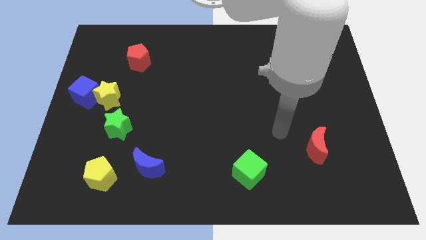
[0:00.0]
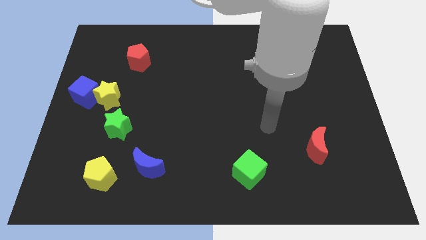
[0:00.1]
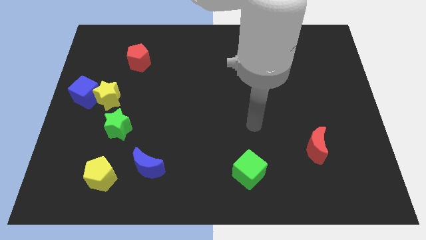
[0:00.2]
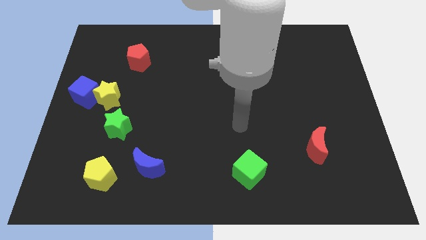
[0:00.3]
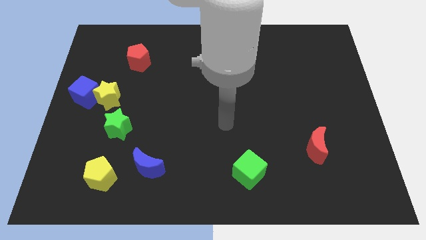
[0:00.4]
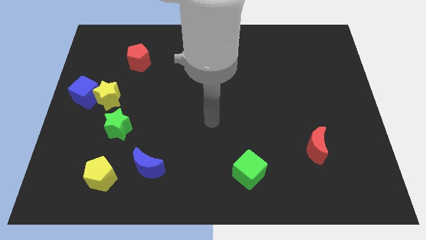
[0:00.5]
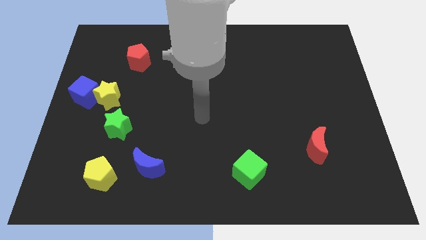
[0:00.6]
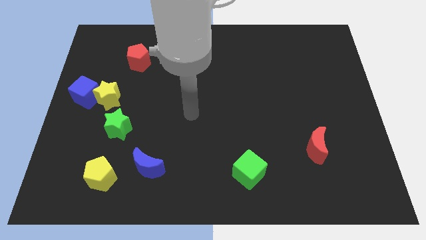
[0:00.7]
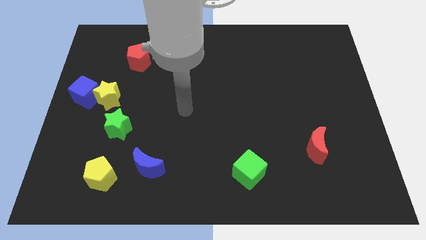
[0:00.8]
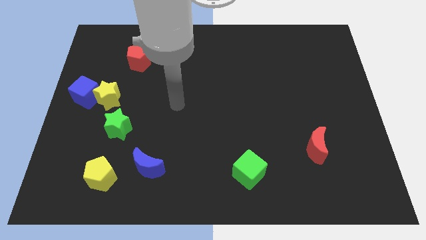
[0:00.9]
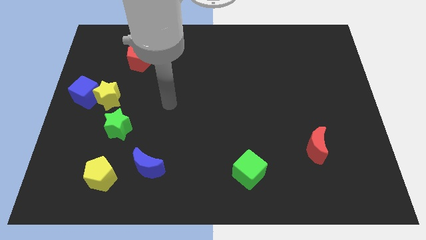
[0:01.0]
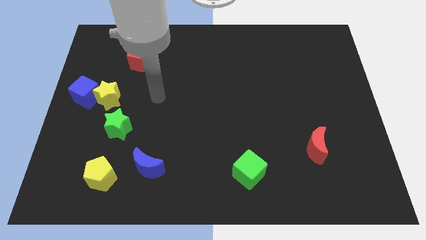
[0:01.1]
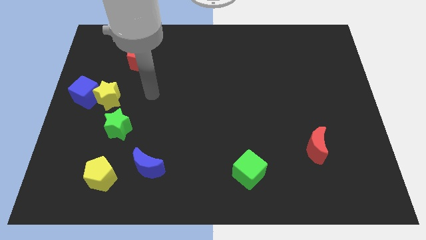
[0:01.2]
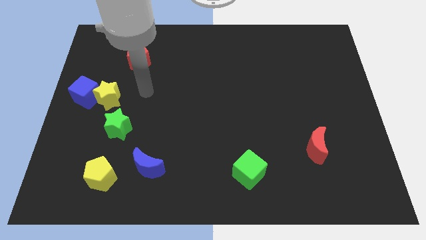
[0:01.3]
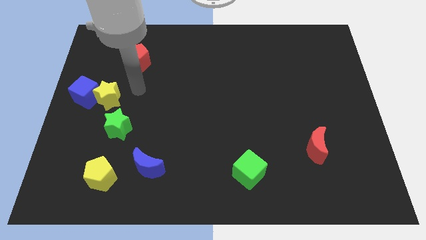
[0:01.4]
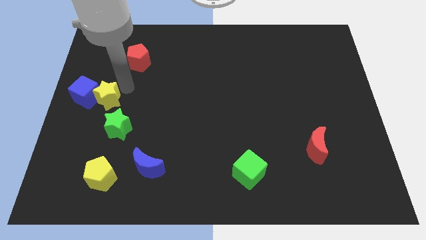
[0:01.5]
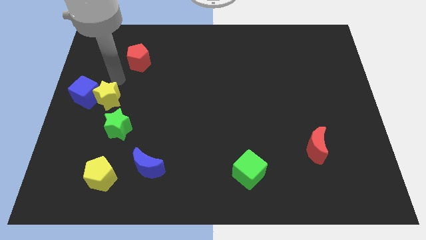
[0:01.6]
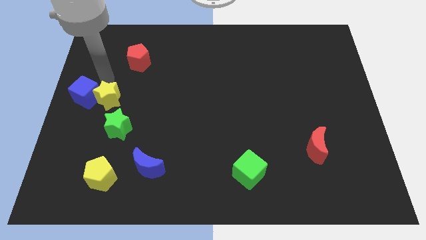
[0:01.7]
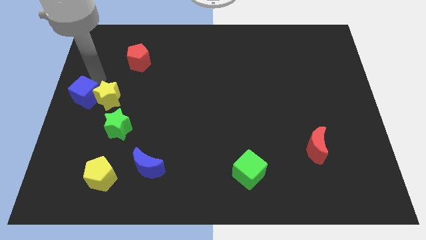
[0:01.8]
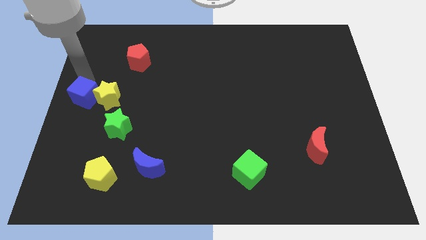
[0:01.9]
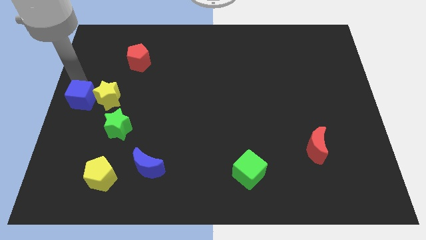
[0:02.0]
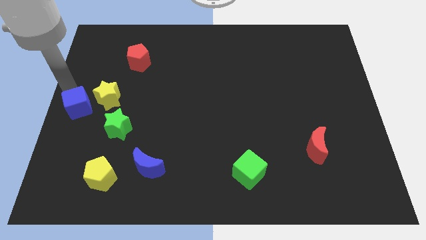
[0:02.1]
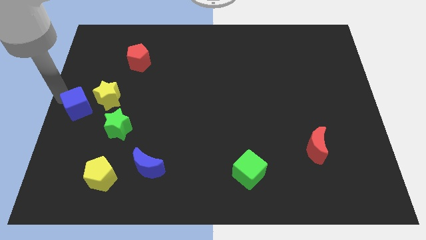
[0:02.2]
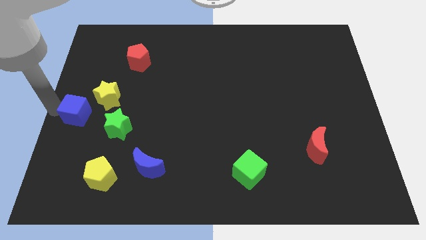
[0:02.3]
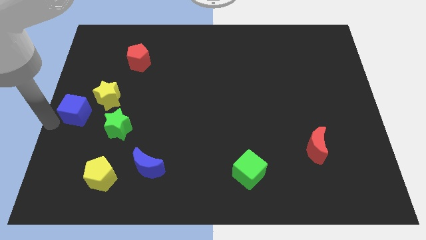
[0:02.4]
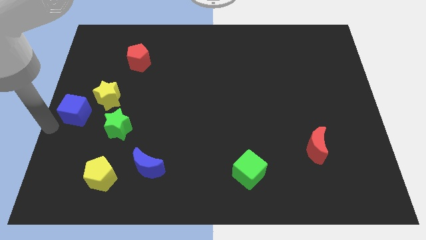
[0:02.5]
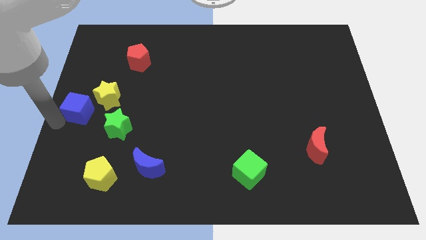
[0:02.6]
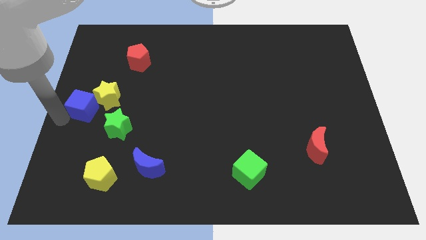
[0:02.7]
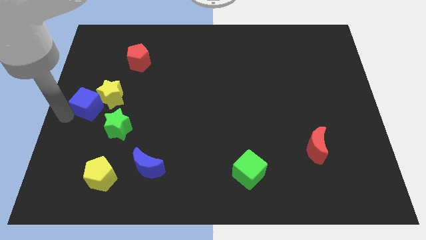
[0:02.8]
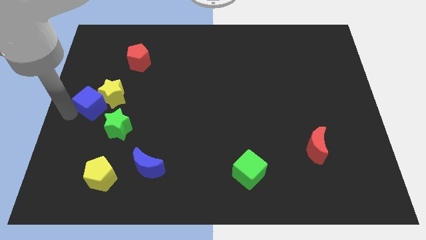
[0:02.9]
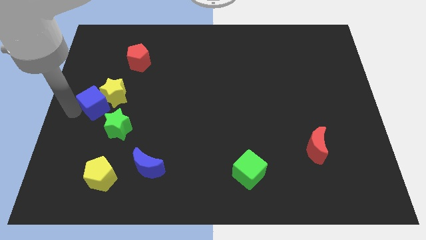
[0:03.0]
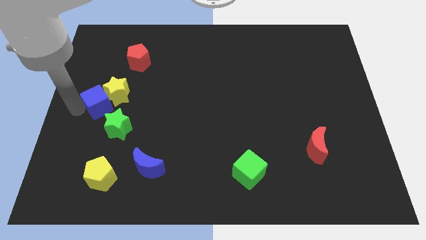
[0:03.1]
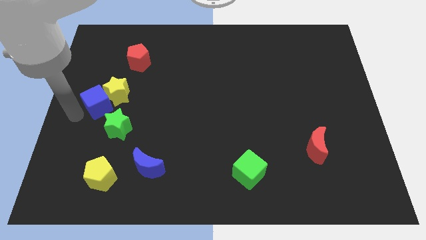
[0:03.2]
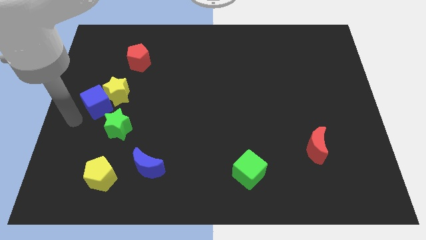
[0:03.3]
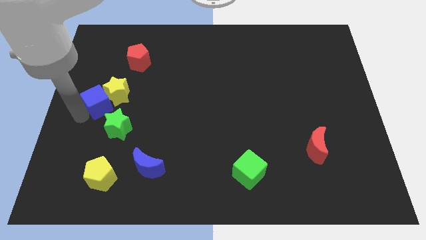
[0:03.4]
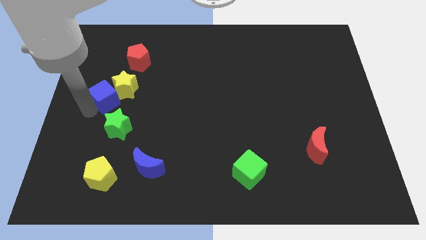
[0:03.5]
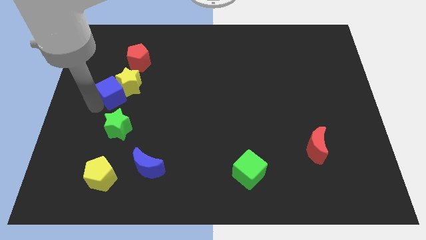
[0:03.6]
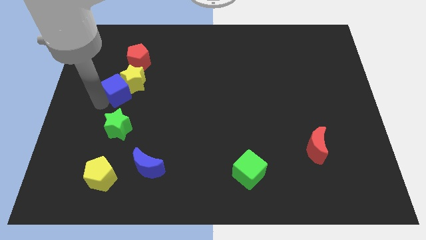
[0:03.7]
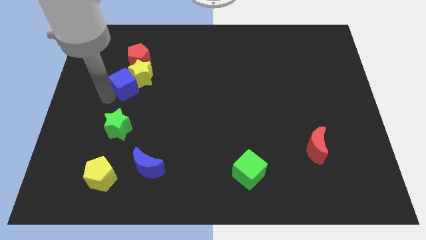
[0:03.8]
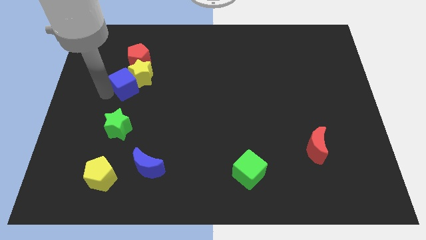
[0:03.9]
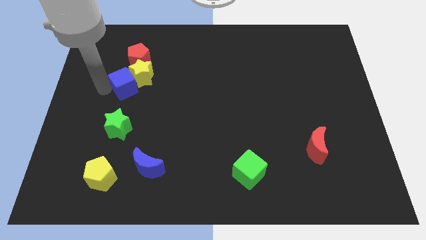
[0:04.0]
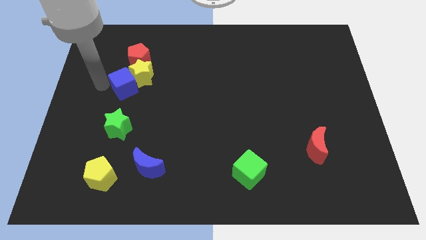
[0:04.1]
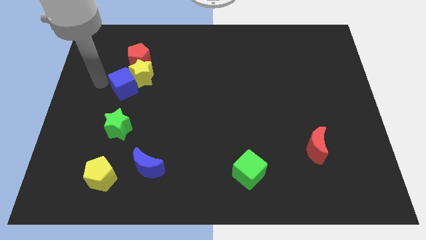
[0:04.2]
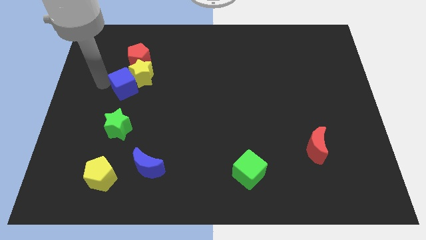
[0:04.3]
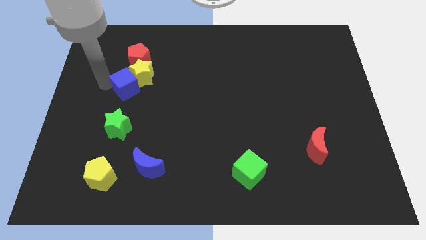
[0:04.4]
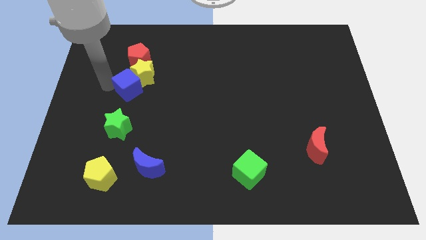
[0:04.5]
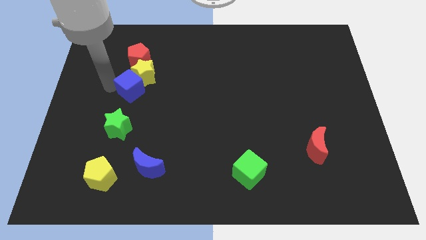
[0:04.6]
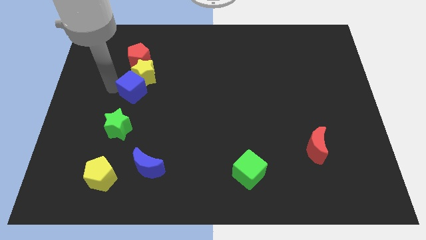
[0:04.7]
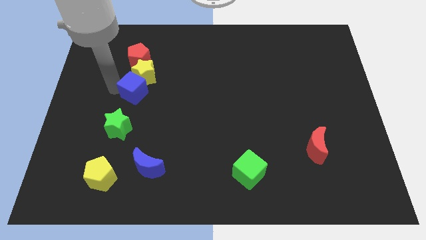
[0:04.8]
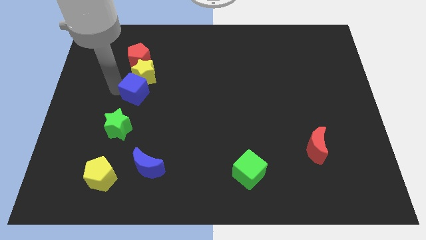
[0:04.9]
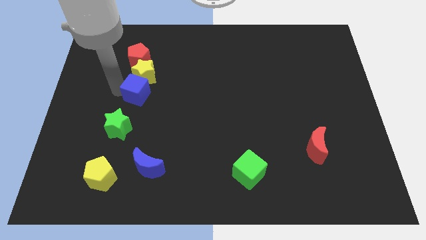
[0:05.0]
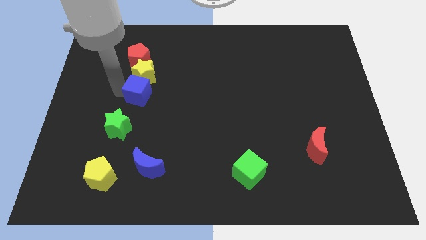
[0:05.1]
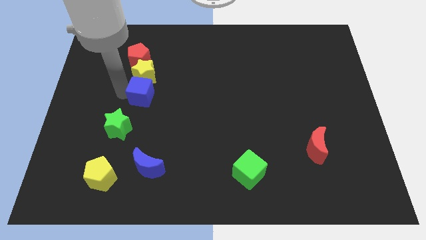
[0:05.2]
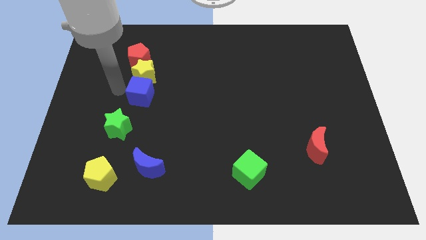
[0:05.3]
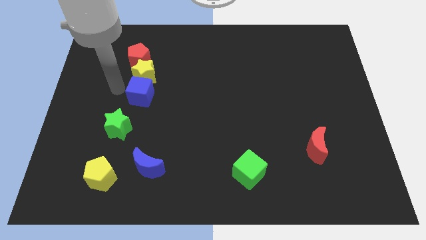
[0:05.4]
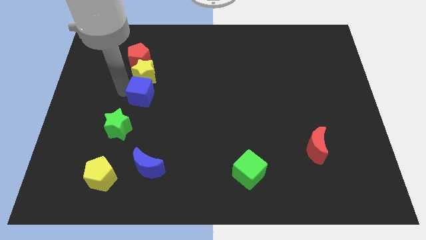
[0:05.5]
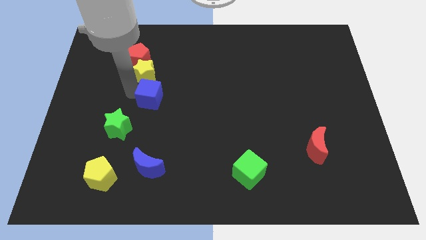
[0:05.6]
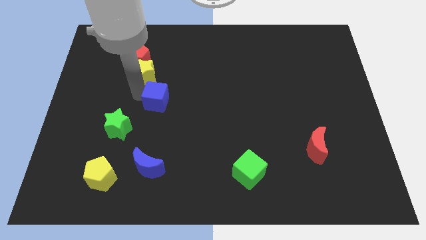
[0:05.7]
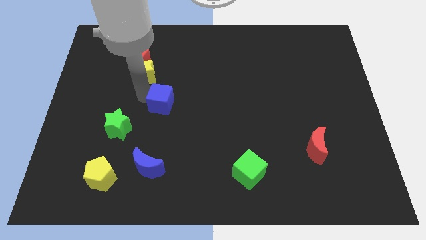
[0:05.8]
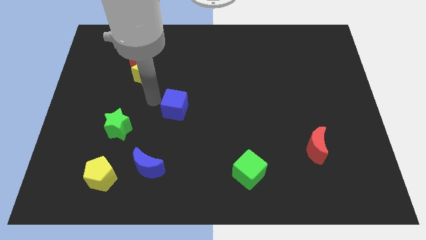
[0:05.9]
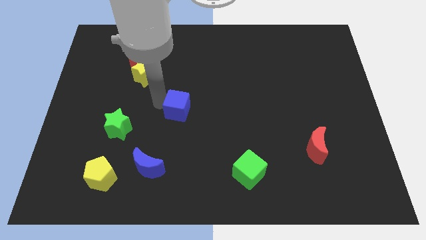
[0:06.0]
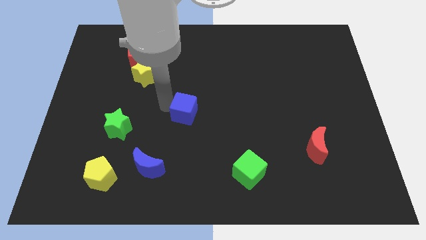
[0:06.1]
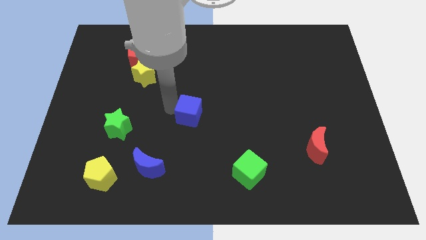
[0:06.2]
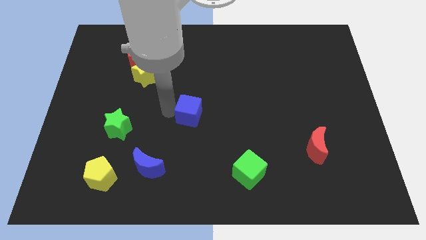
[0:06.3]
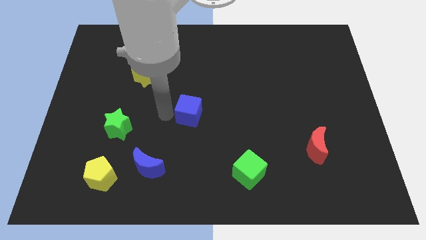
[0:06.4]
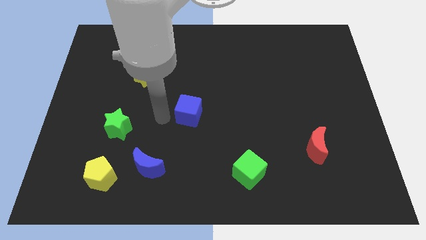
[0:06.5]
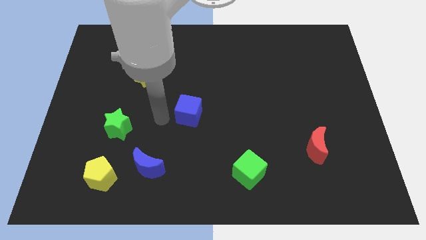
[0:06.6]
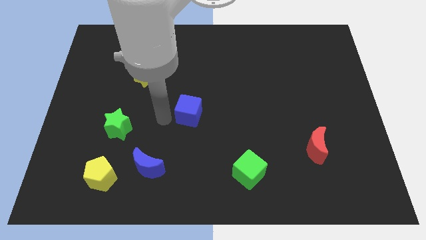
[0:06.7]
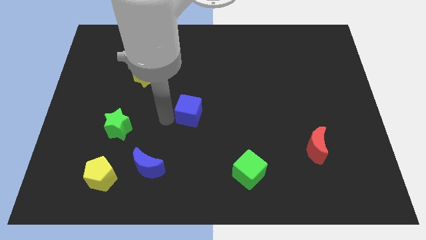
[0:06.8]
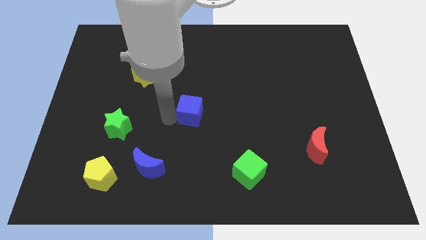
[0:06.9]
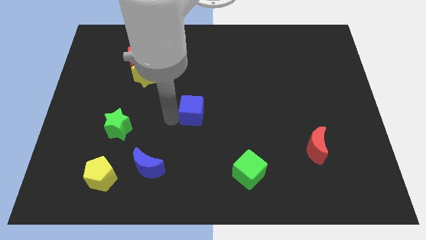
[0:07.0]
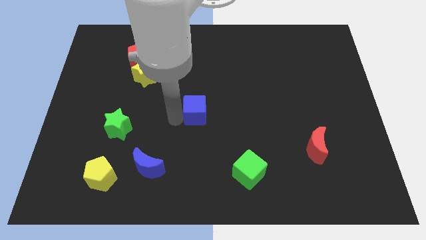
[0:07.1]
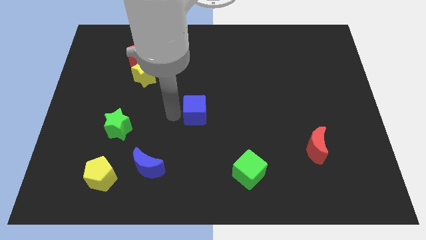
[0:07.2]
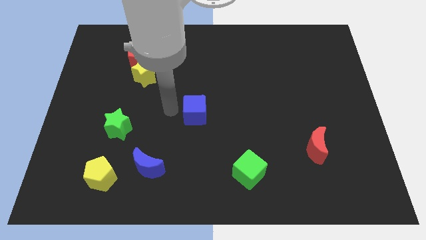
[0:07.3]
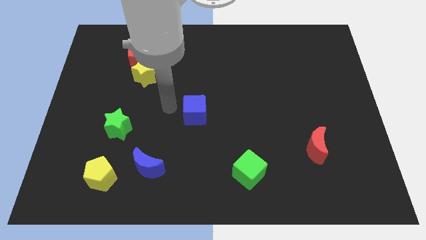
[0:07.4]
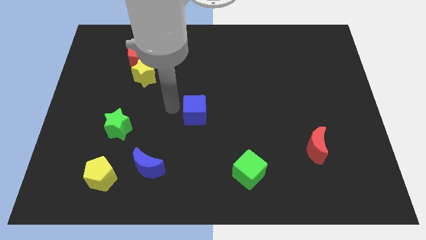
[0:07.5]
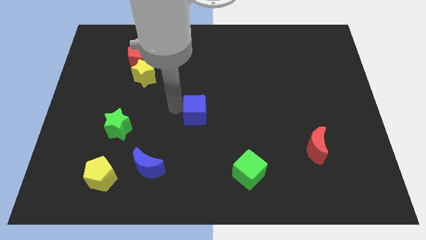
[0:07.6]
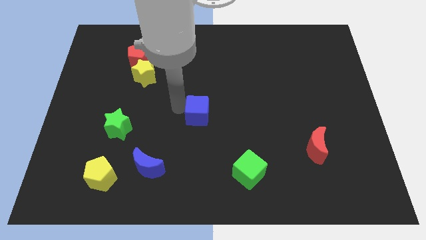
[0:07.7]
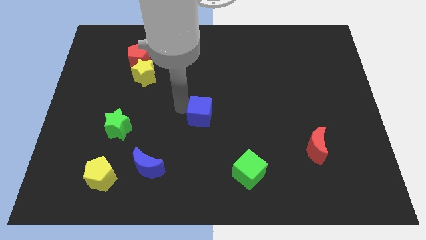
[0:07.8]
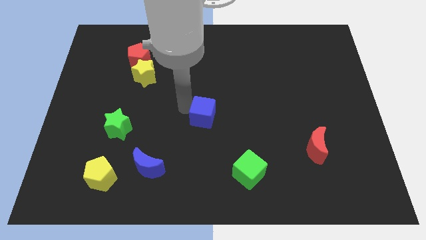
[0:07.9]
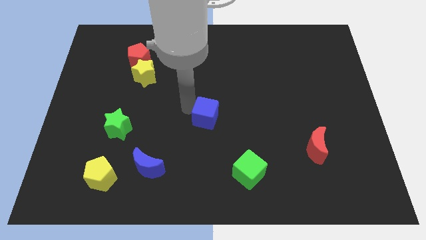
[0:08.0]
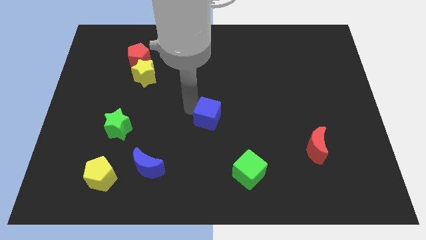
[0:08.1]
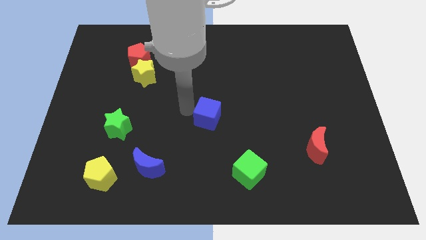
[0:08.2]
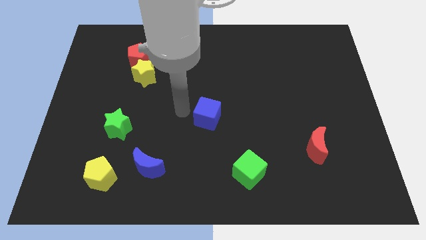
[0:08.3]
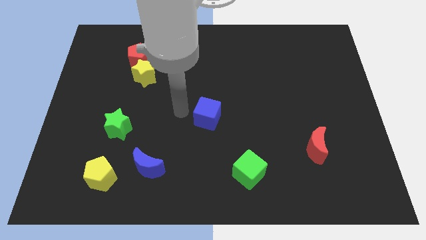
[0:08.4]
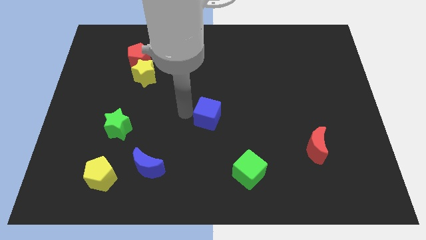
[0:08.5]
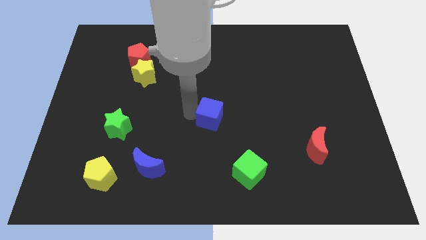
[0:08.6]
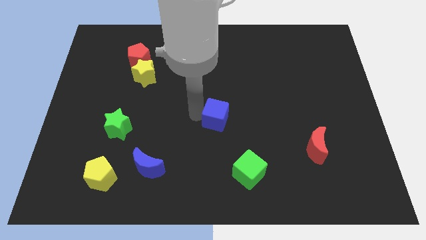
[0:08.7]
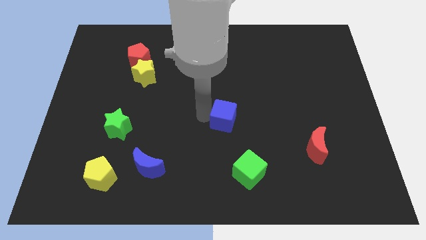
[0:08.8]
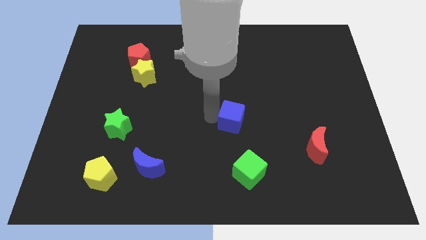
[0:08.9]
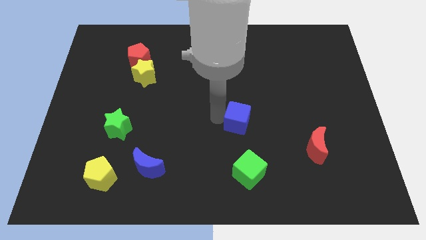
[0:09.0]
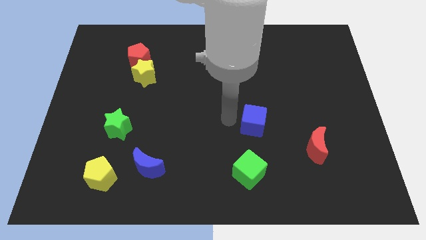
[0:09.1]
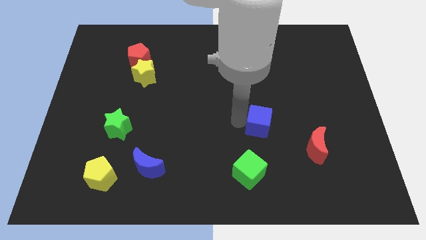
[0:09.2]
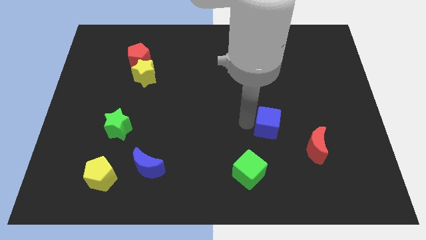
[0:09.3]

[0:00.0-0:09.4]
put the blue cube to the top left side of the red moon
